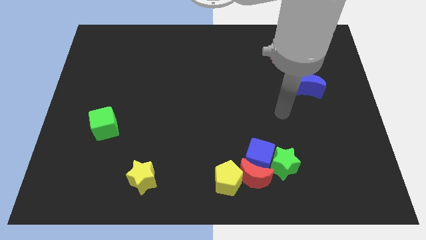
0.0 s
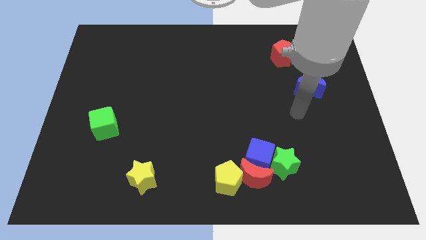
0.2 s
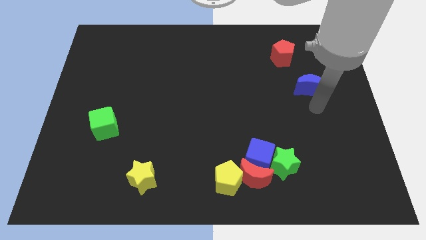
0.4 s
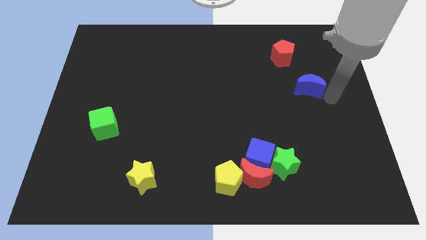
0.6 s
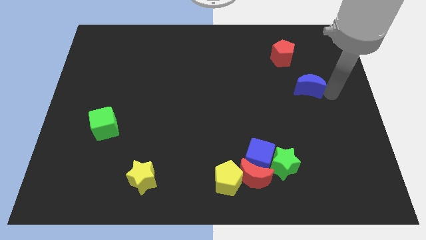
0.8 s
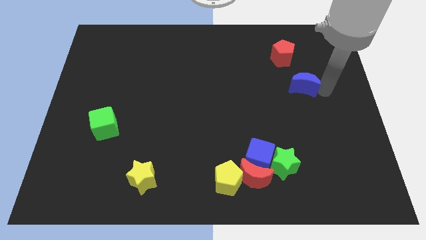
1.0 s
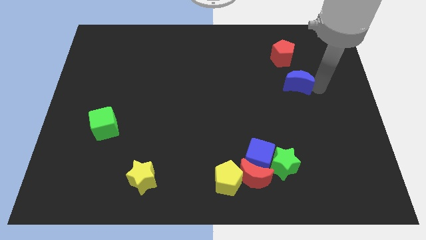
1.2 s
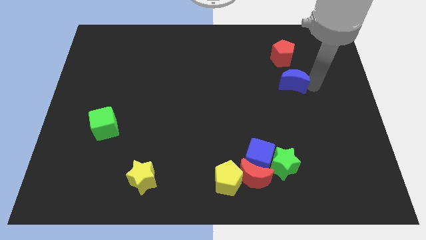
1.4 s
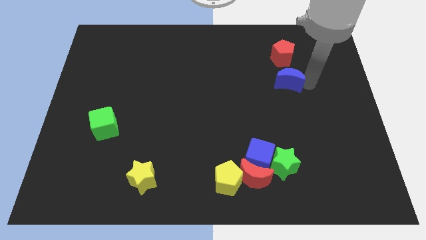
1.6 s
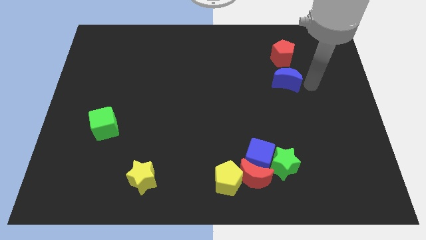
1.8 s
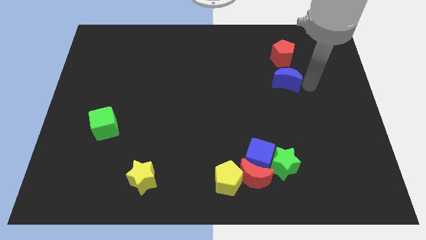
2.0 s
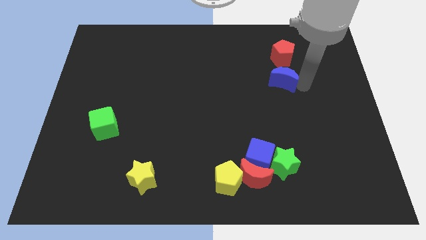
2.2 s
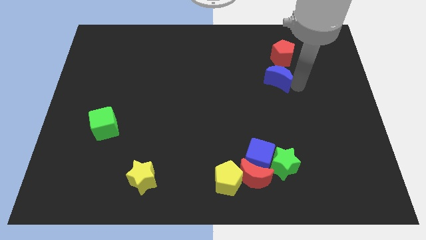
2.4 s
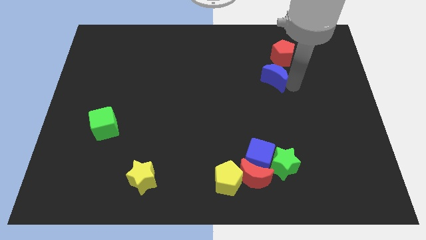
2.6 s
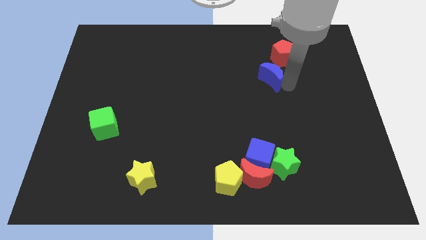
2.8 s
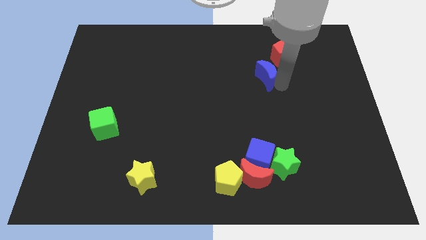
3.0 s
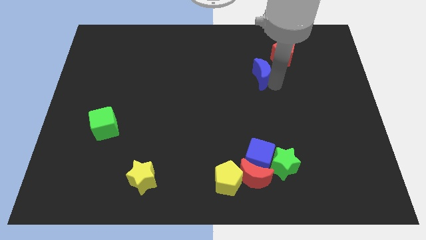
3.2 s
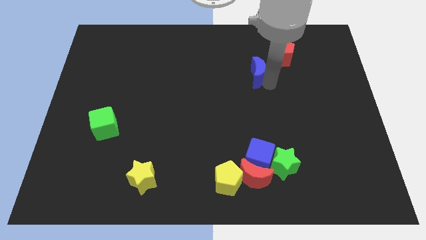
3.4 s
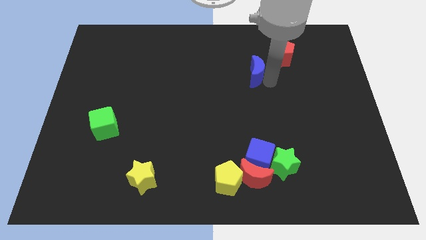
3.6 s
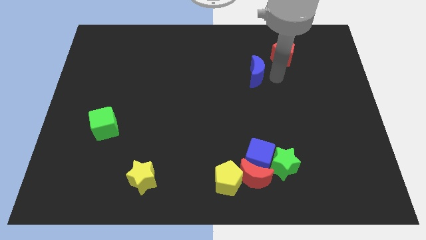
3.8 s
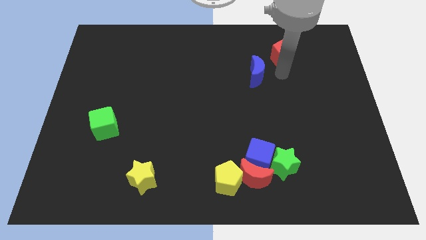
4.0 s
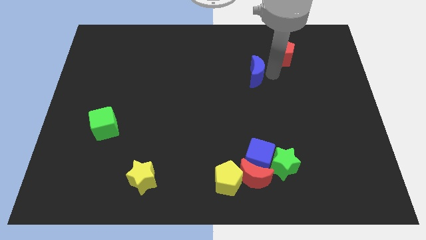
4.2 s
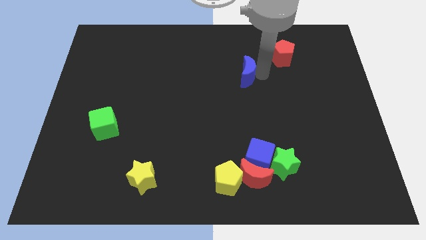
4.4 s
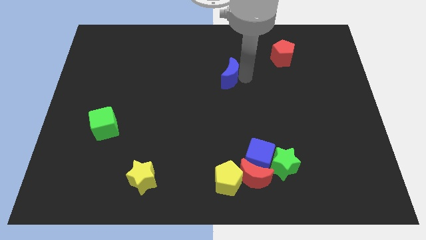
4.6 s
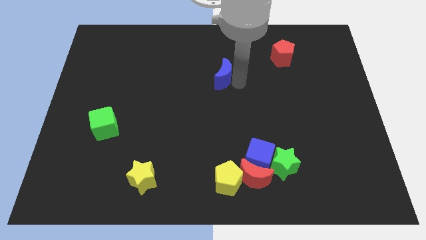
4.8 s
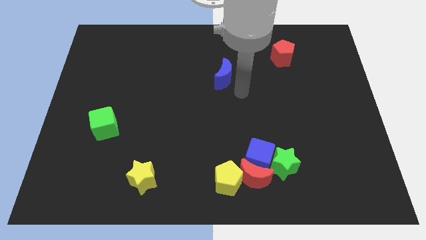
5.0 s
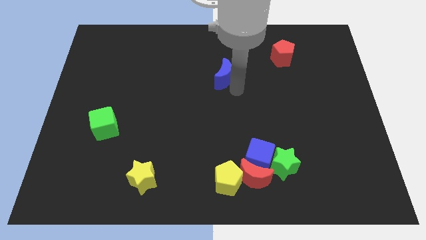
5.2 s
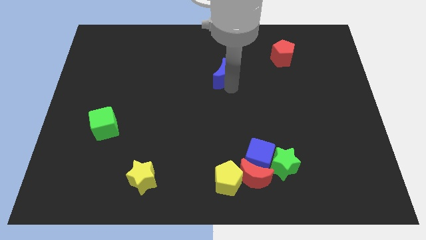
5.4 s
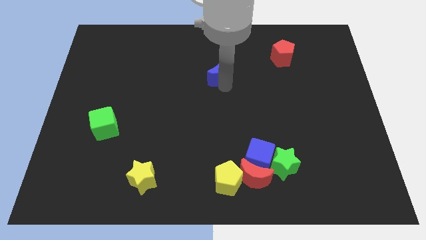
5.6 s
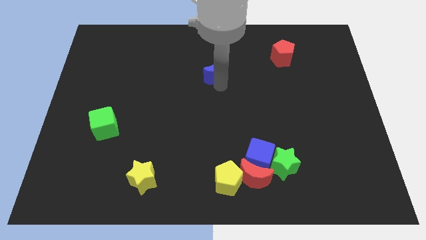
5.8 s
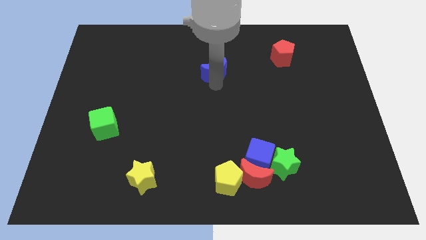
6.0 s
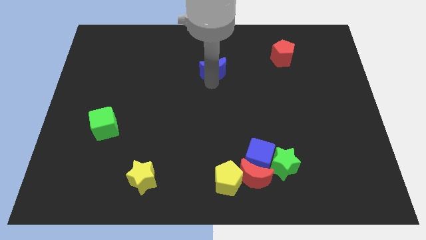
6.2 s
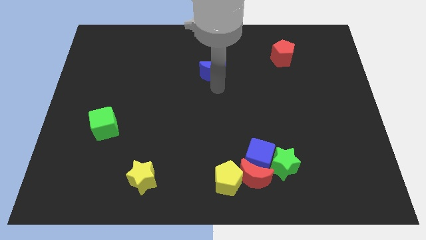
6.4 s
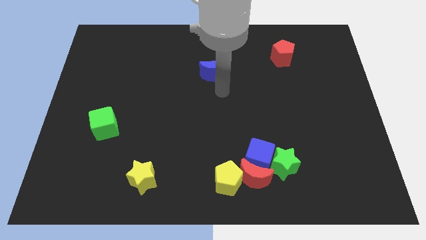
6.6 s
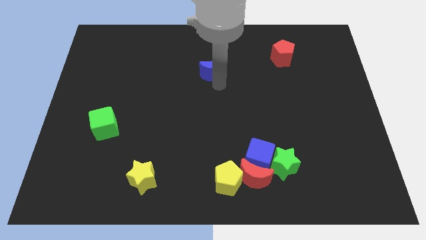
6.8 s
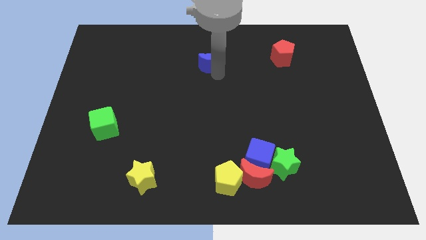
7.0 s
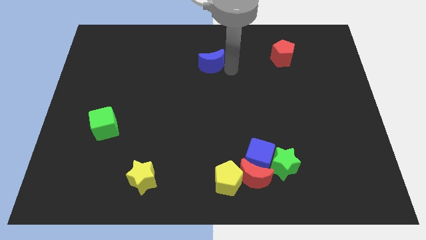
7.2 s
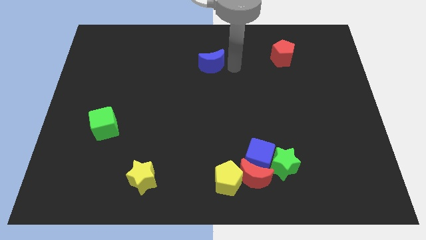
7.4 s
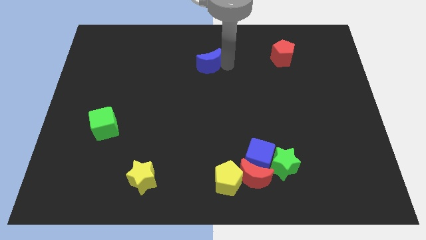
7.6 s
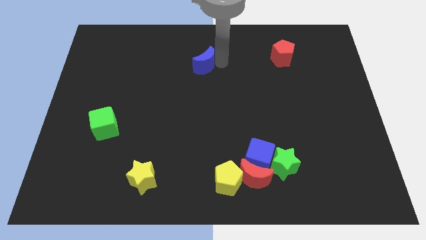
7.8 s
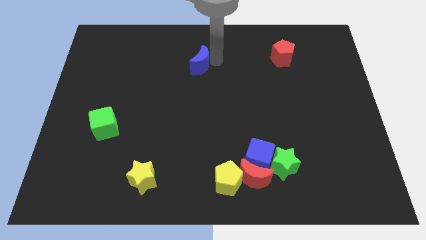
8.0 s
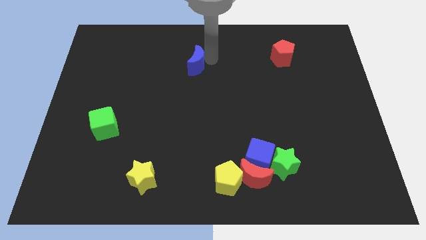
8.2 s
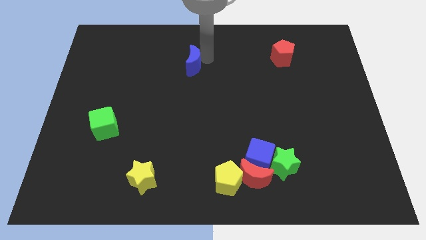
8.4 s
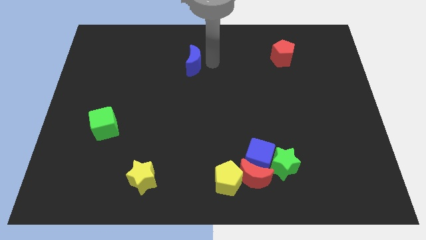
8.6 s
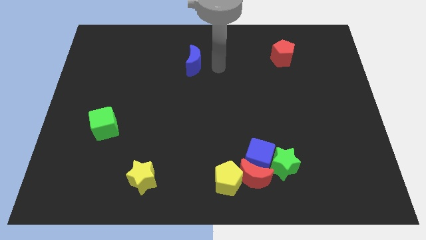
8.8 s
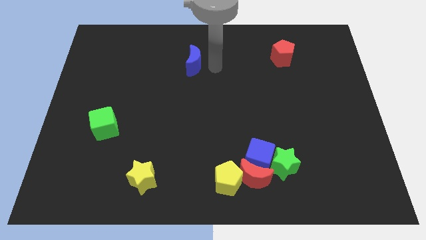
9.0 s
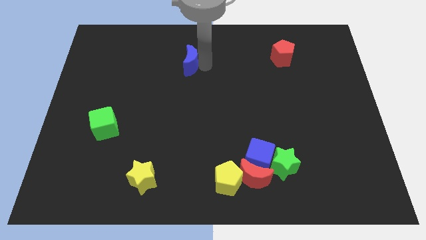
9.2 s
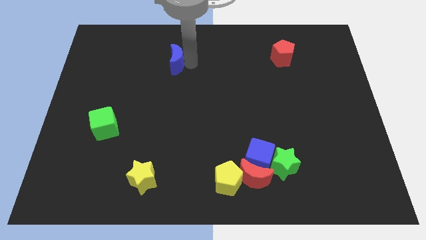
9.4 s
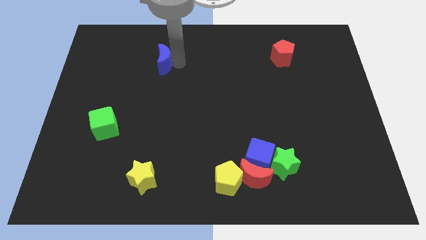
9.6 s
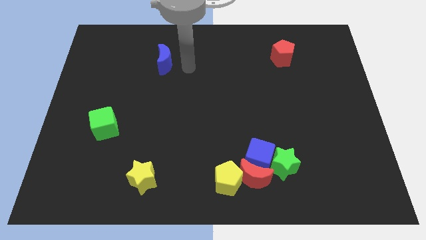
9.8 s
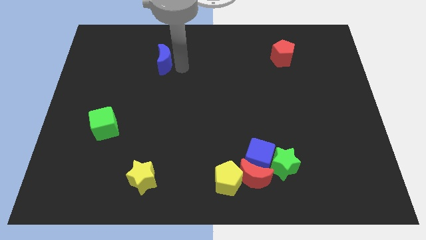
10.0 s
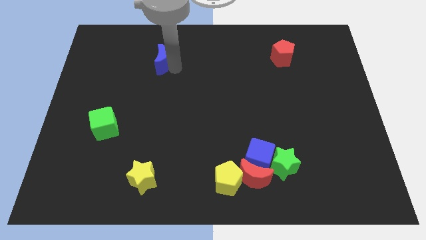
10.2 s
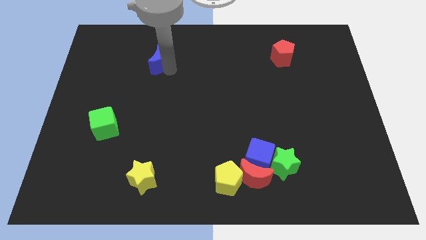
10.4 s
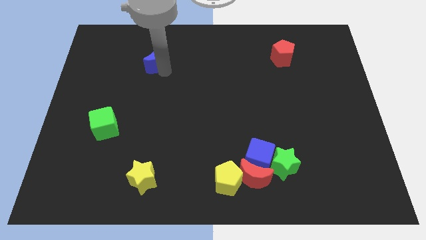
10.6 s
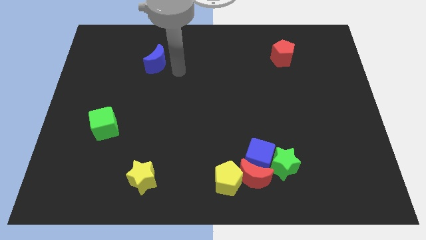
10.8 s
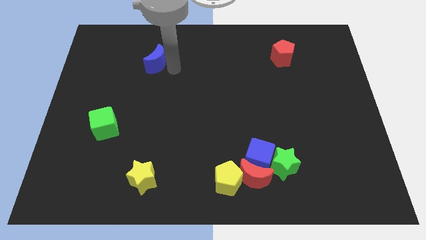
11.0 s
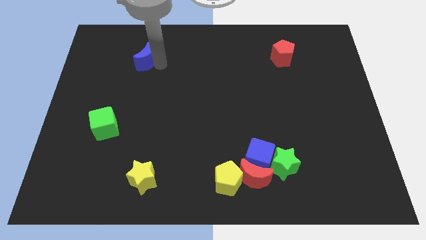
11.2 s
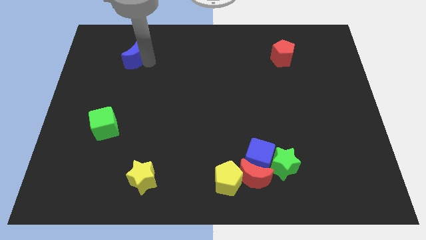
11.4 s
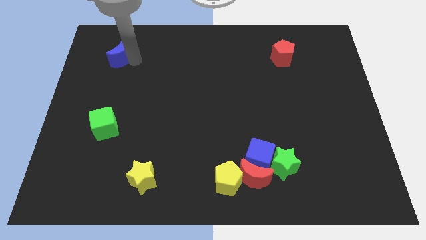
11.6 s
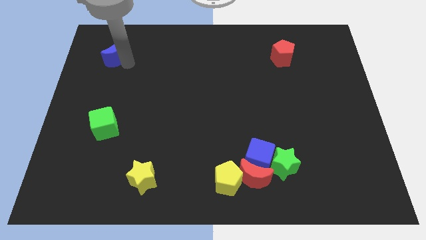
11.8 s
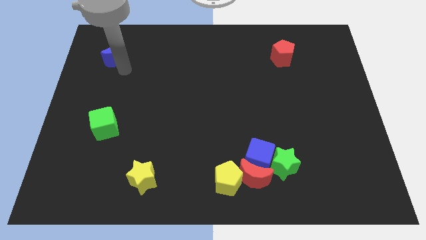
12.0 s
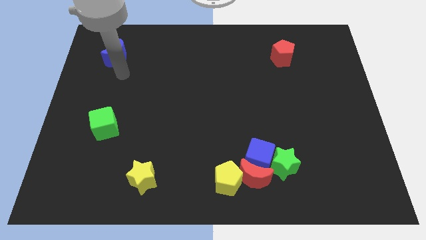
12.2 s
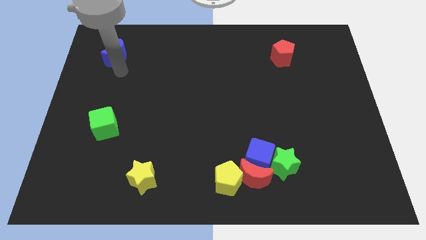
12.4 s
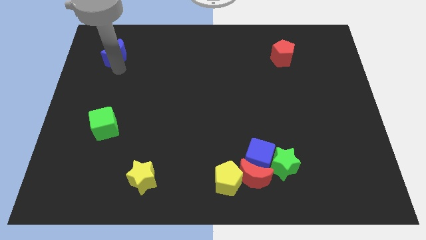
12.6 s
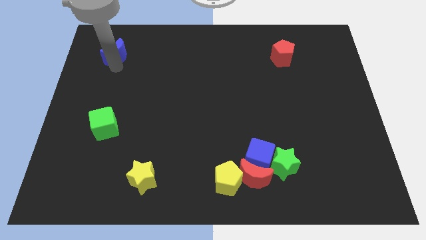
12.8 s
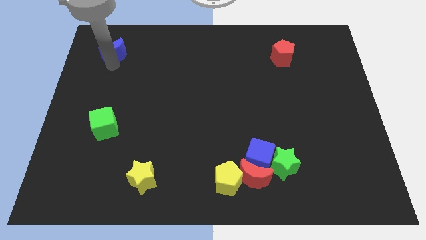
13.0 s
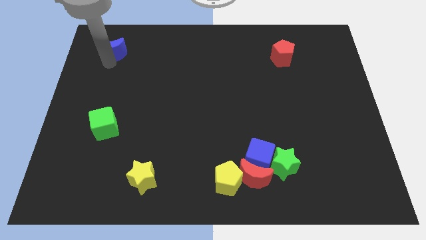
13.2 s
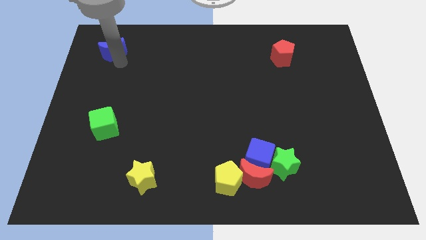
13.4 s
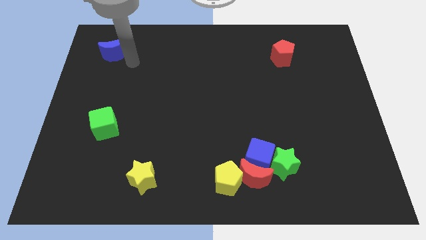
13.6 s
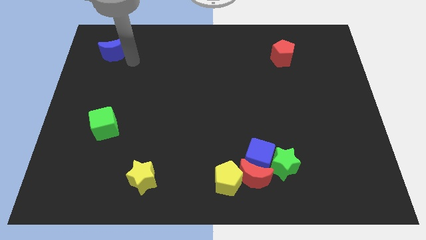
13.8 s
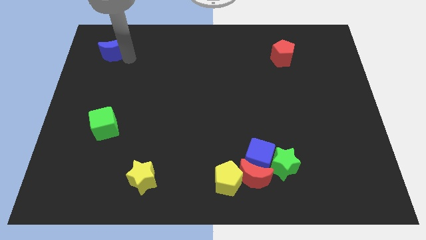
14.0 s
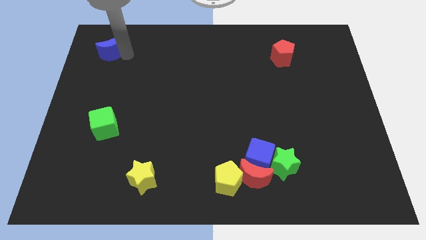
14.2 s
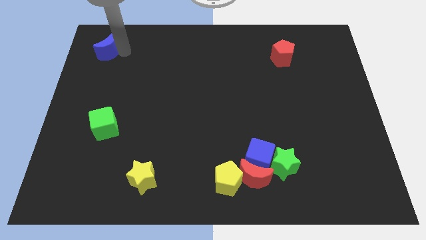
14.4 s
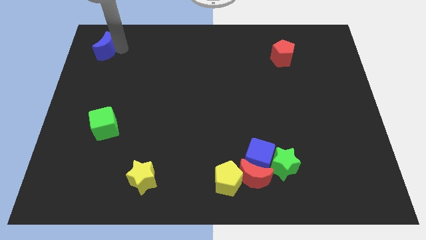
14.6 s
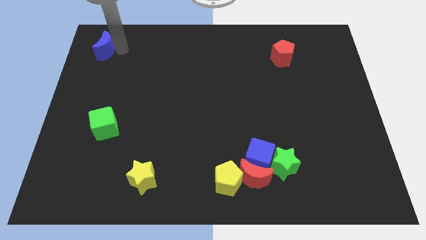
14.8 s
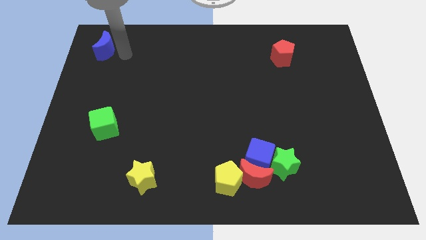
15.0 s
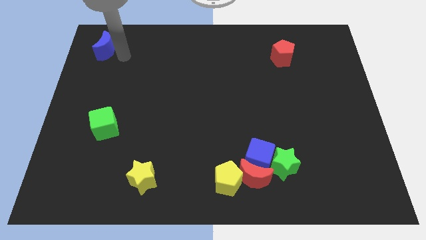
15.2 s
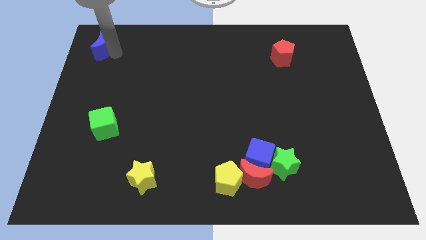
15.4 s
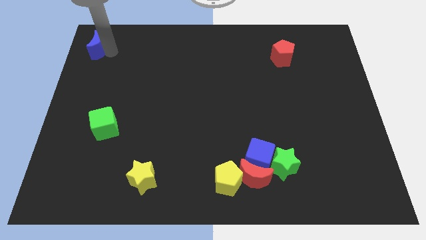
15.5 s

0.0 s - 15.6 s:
put the blue moon to the top left of the board
